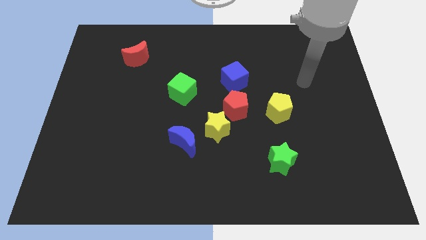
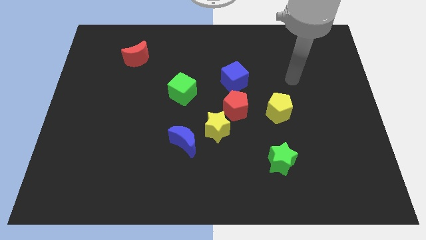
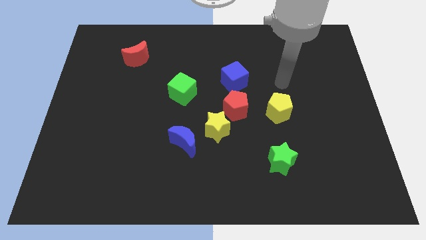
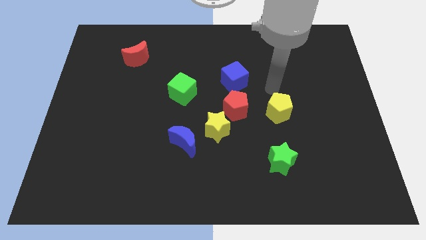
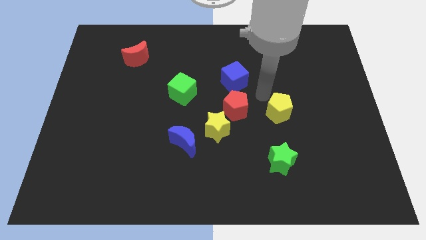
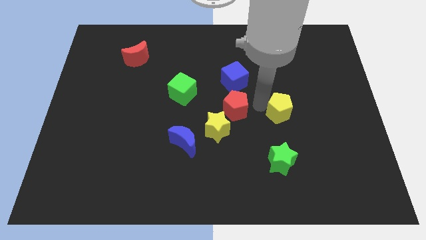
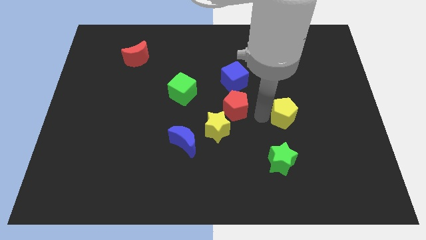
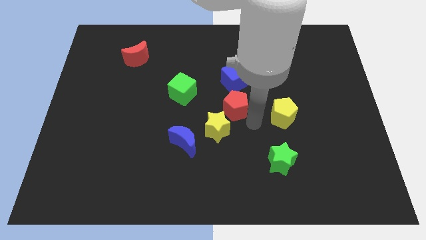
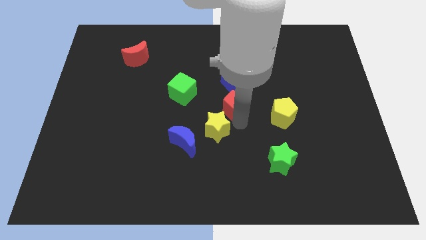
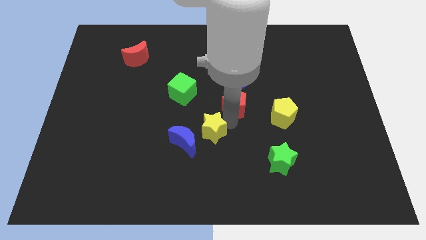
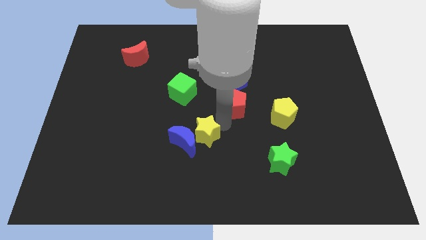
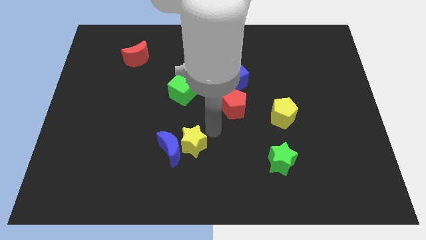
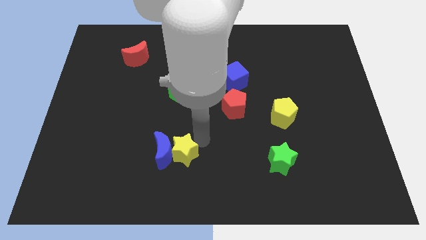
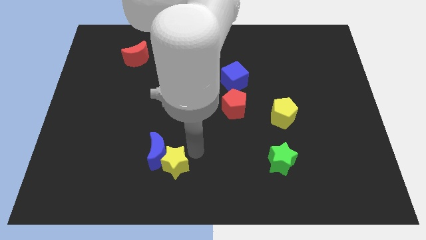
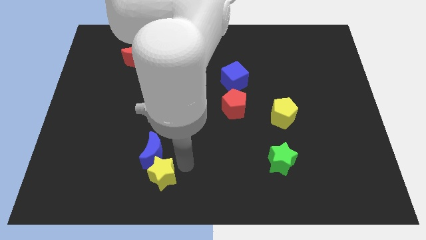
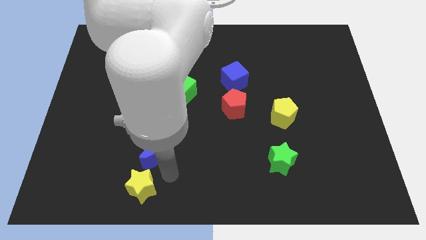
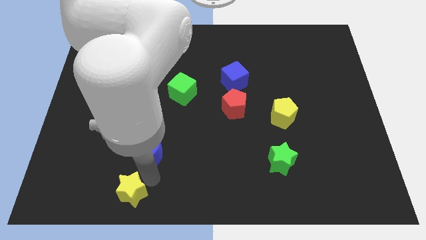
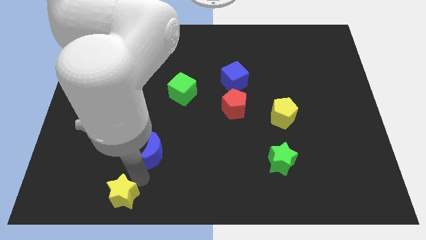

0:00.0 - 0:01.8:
separate the blue moon from the yellow star

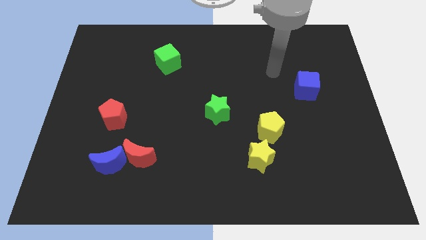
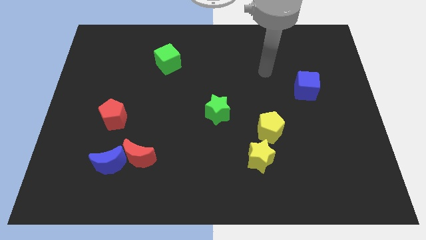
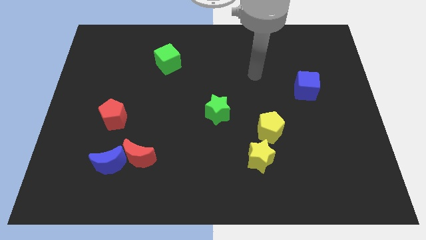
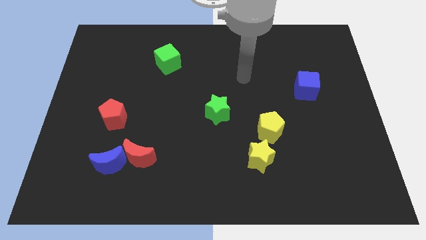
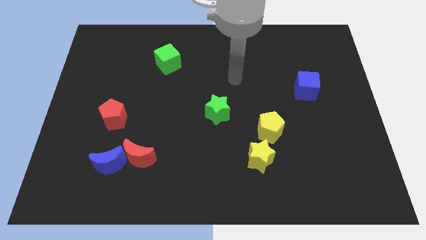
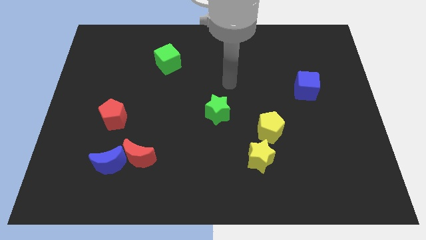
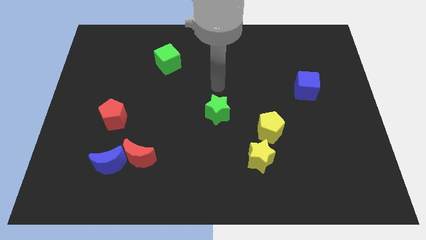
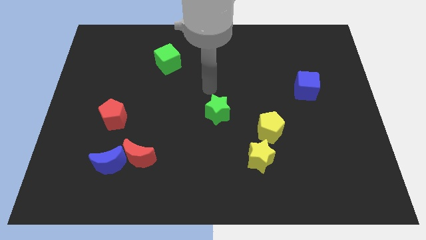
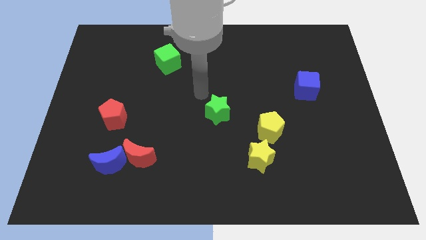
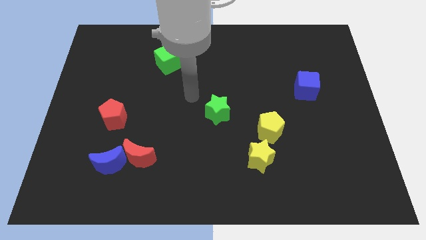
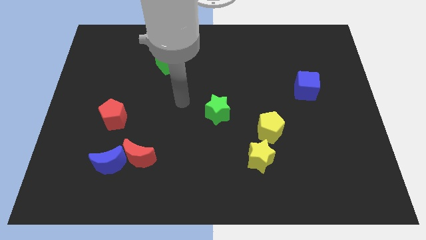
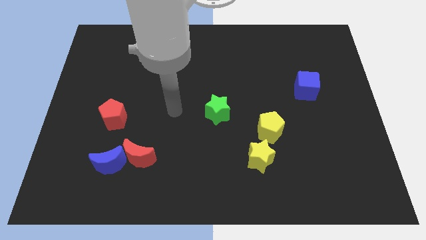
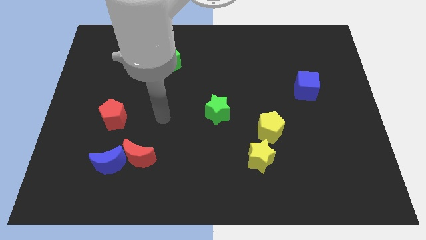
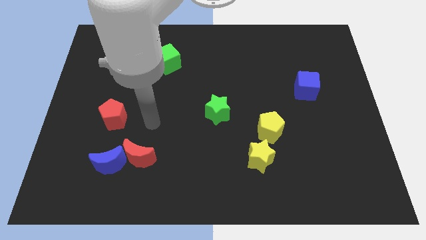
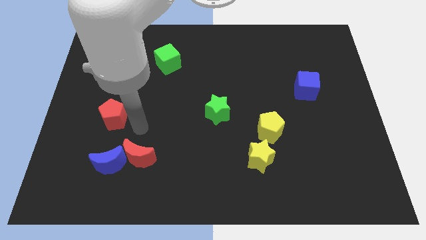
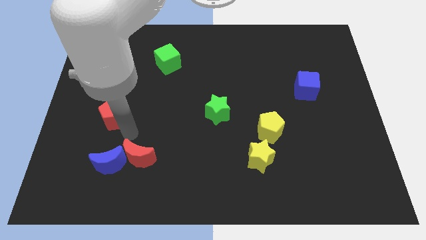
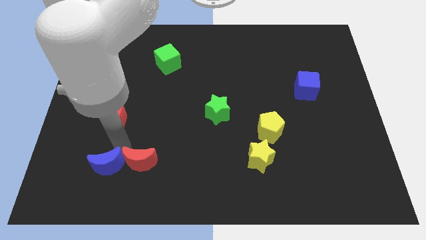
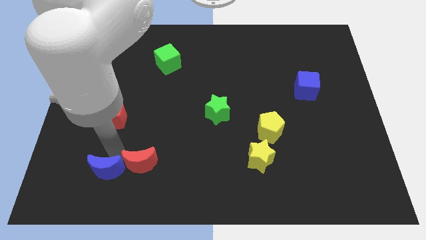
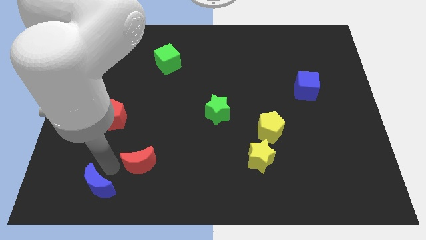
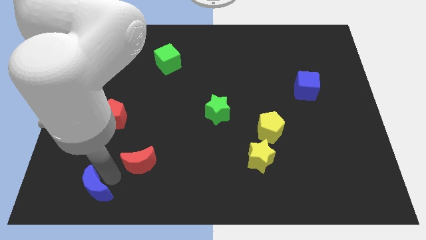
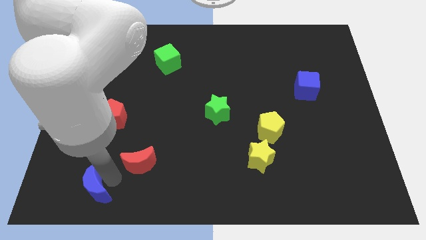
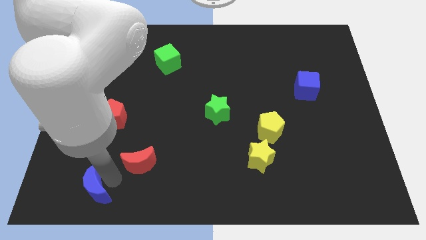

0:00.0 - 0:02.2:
pull the red moon apart from the blue moon

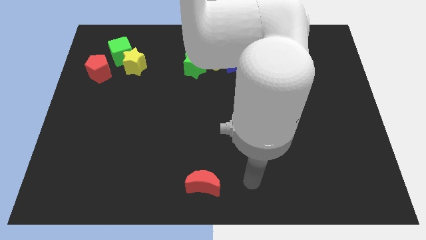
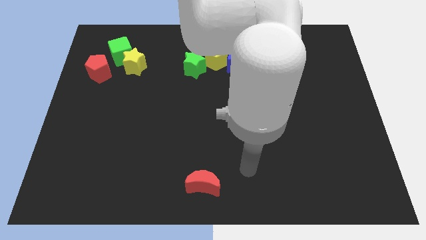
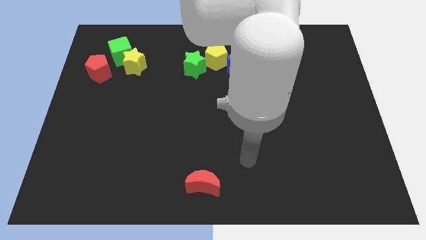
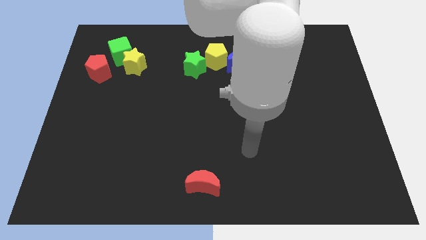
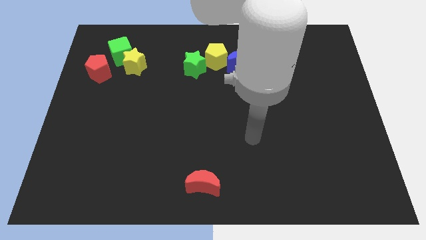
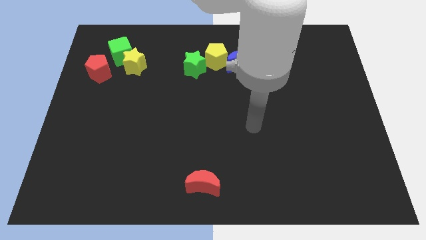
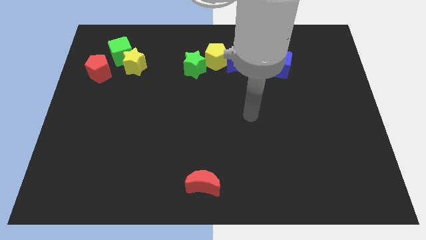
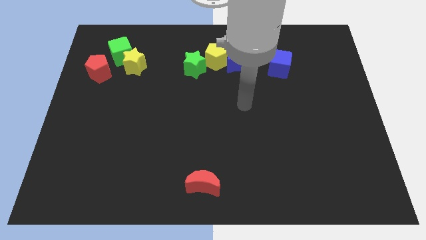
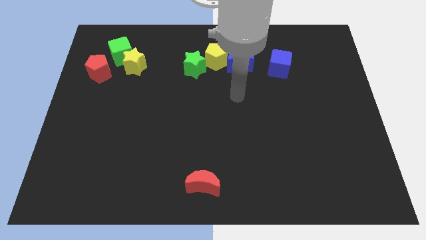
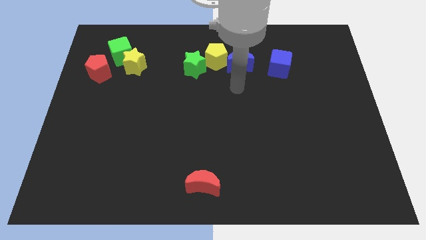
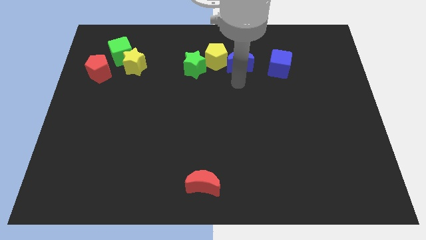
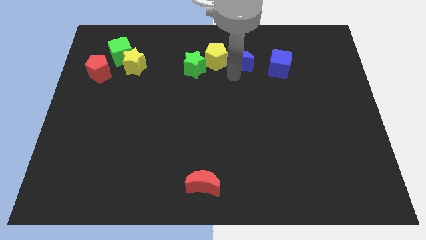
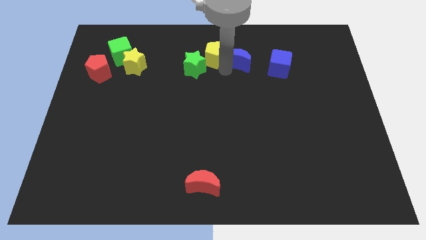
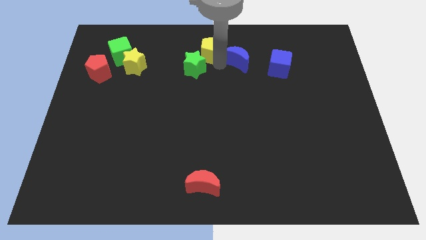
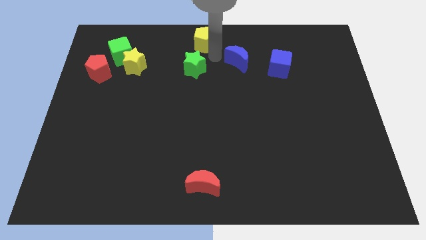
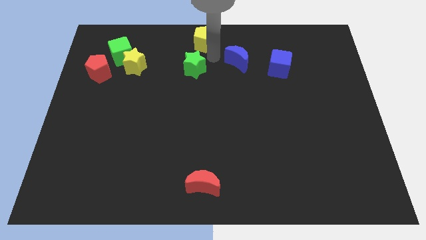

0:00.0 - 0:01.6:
pull the green star apart from the yellow pentagon

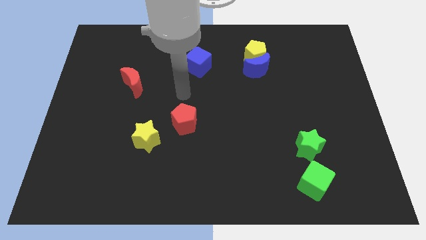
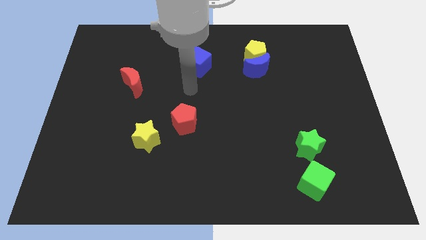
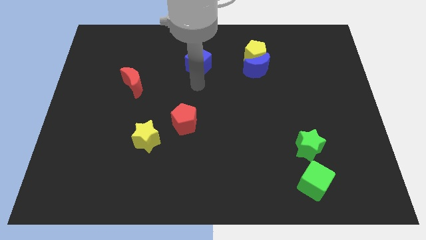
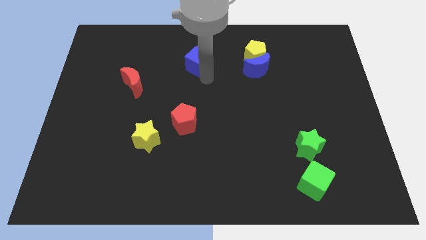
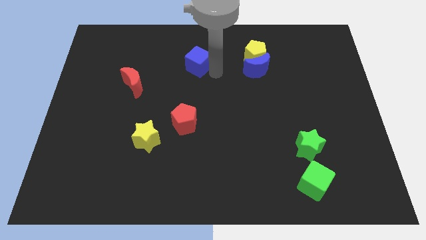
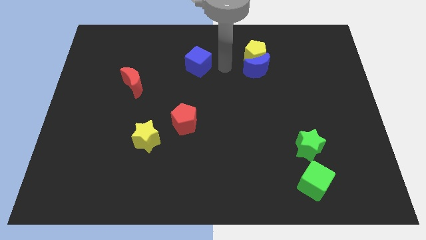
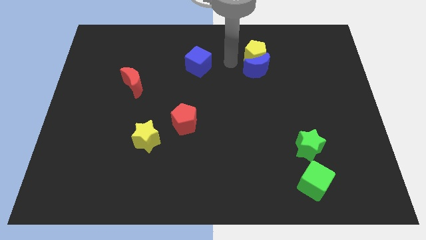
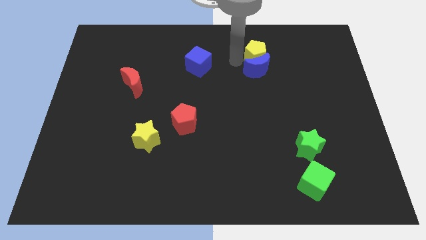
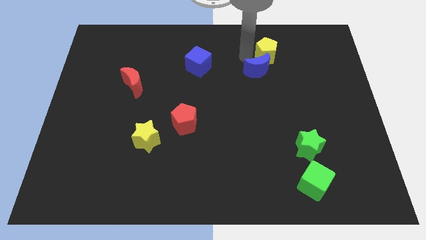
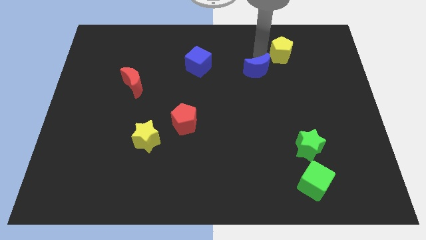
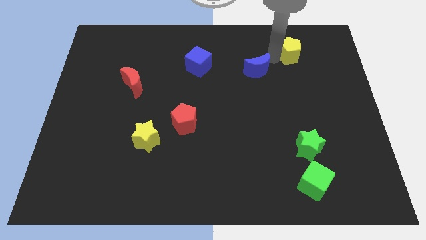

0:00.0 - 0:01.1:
move the blue moon away from the yellow pentagon

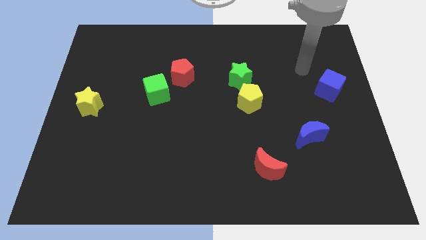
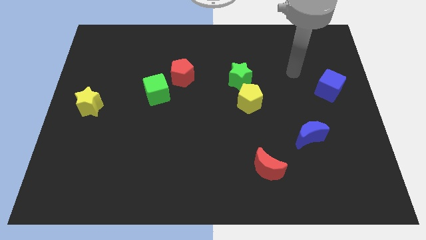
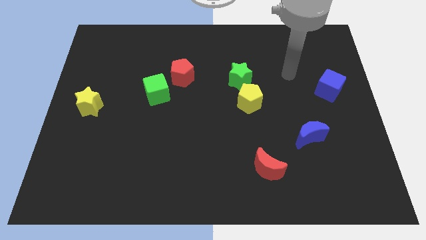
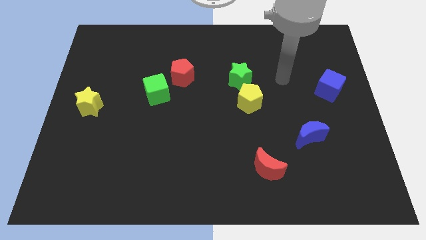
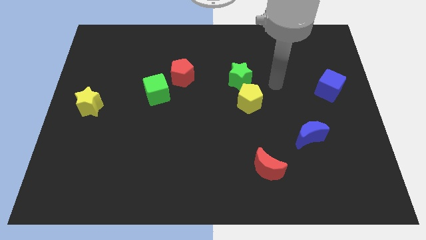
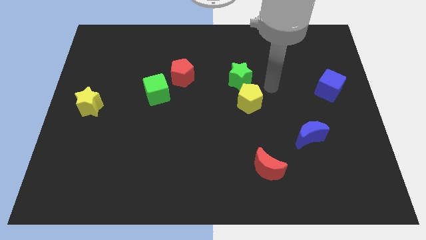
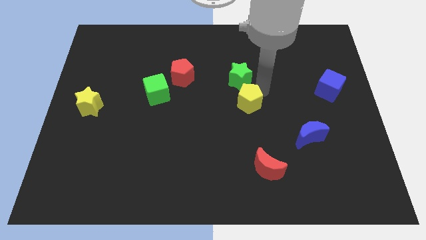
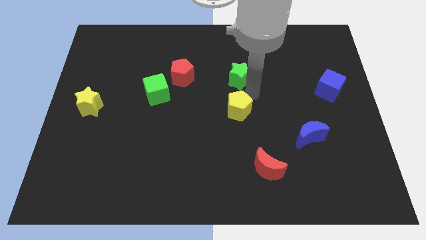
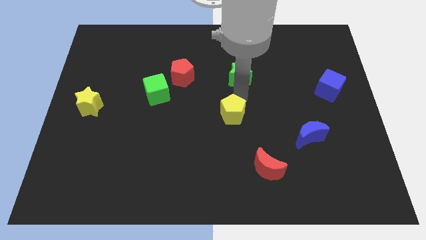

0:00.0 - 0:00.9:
move the green star away from the yellow pentagon

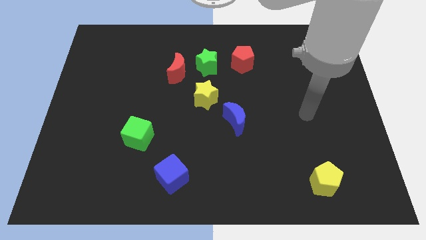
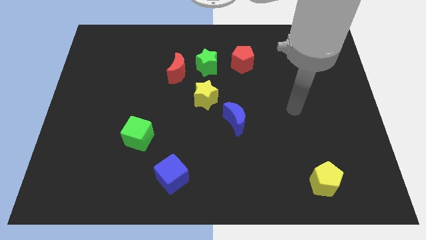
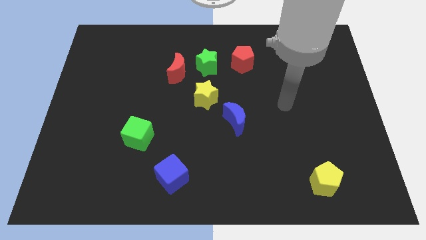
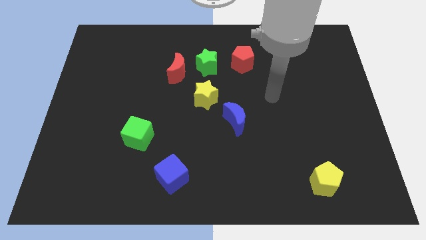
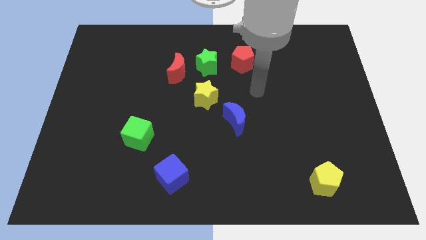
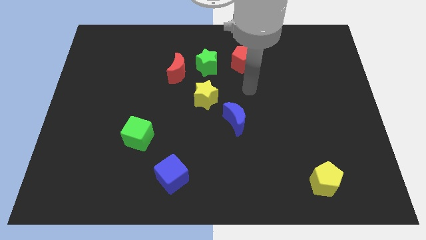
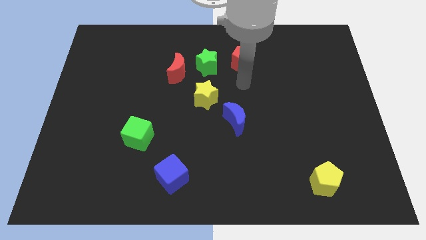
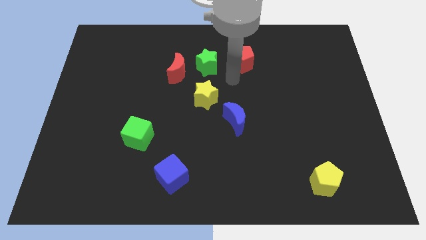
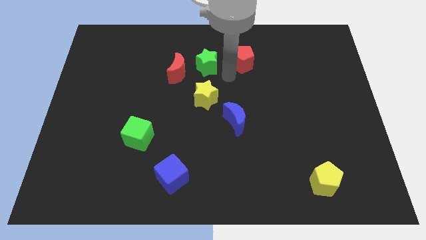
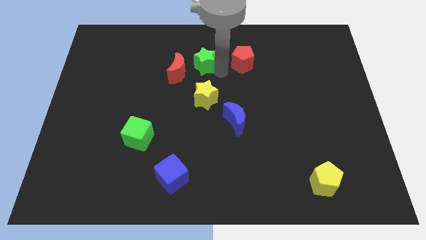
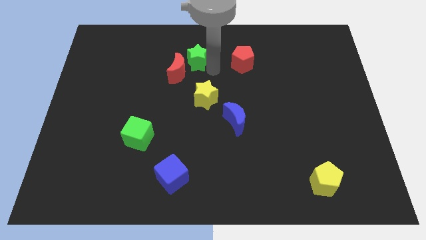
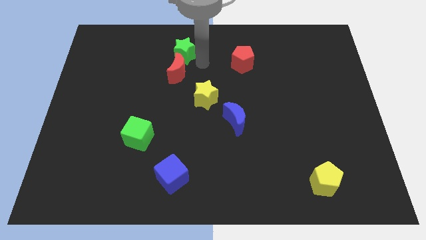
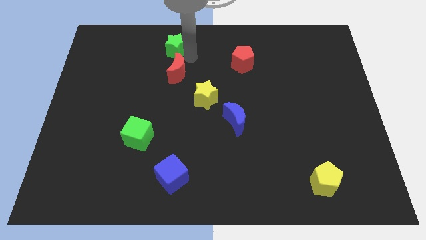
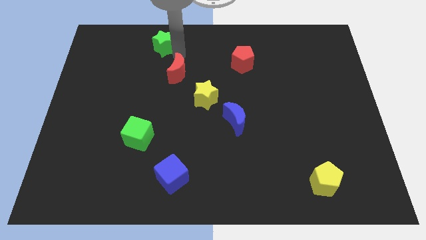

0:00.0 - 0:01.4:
separate the red moon from the green star

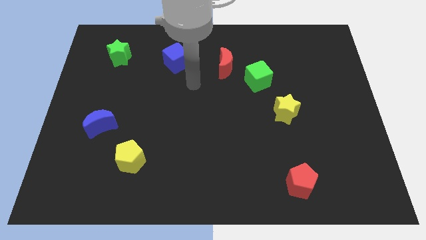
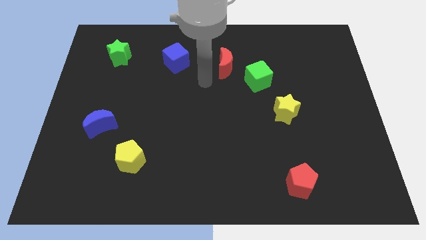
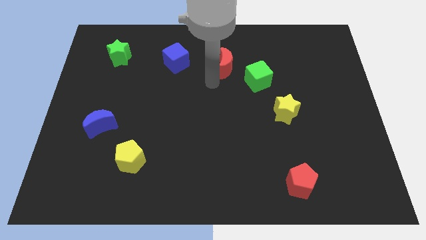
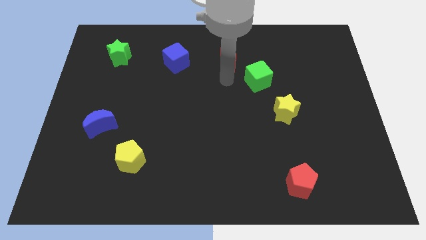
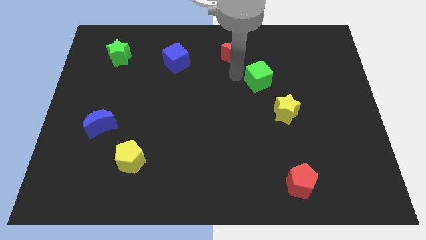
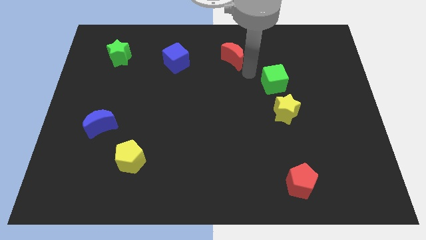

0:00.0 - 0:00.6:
move the red moon away from the green cube
